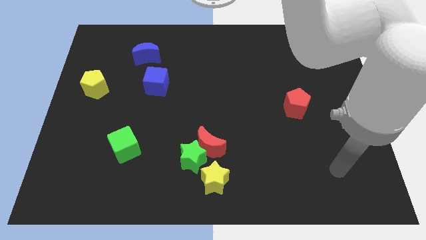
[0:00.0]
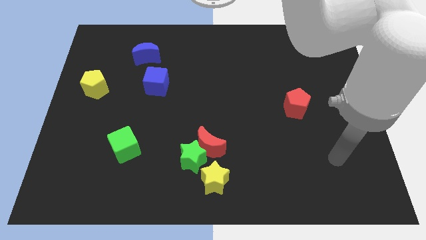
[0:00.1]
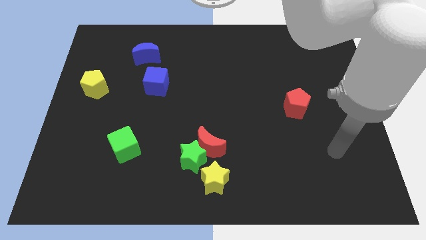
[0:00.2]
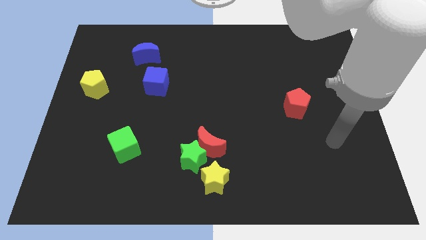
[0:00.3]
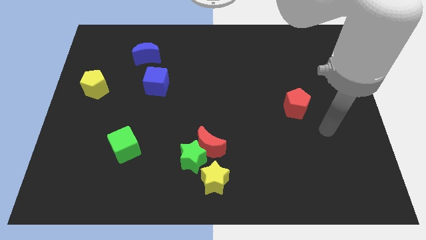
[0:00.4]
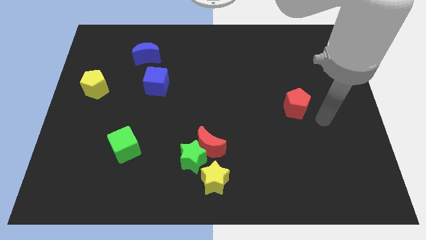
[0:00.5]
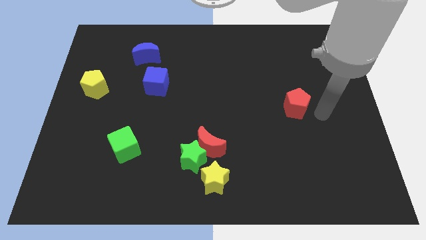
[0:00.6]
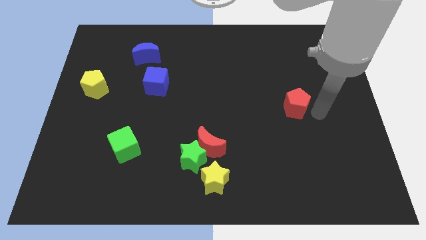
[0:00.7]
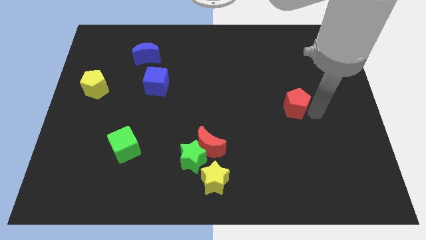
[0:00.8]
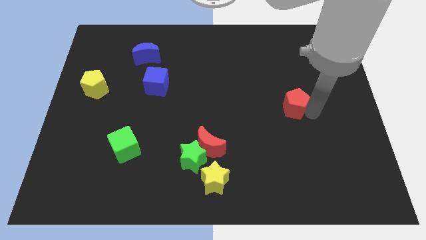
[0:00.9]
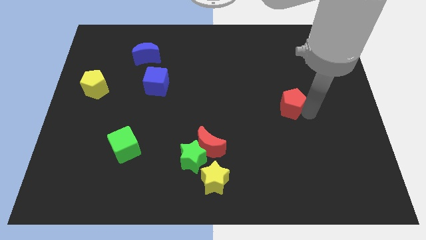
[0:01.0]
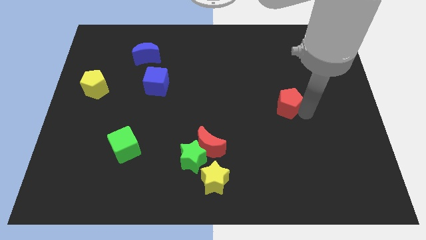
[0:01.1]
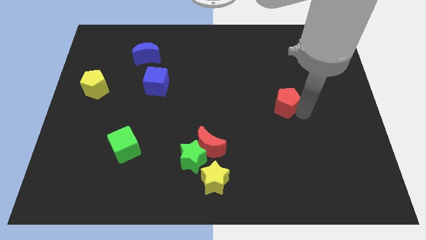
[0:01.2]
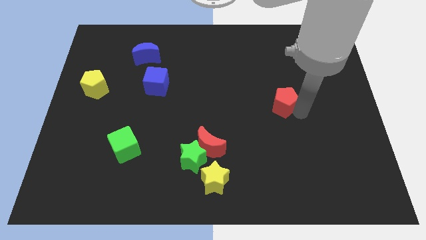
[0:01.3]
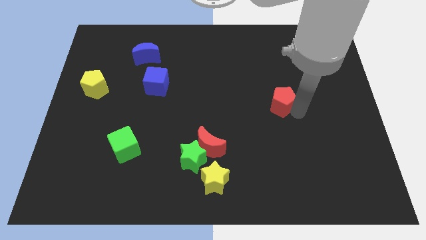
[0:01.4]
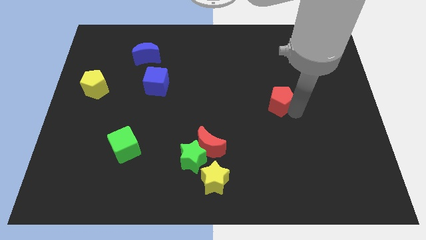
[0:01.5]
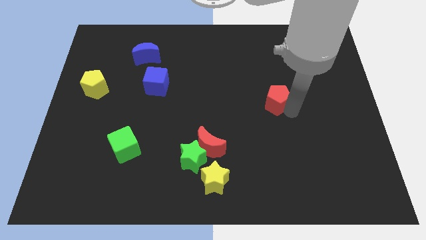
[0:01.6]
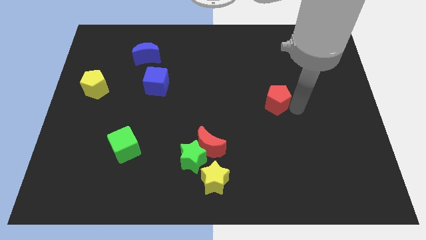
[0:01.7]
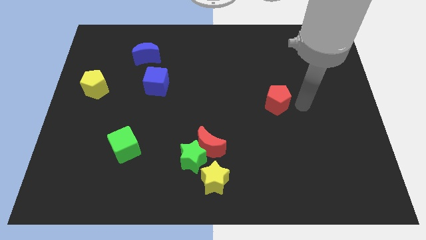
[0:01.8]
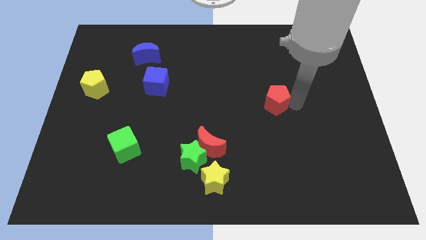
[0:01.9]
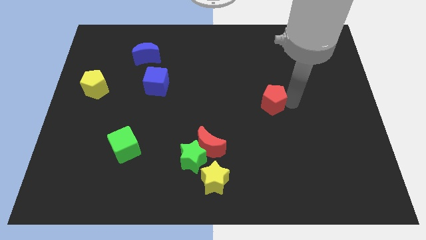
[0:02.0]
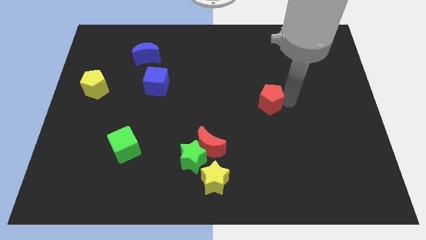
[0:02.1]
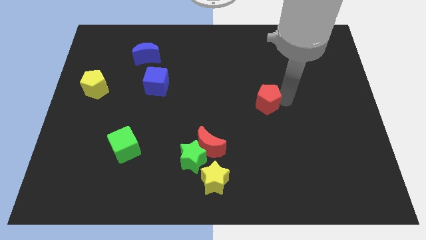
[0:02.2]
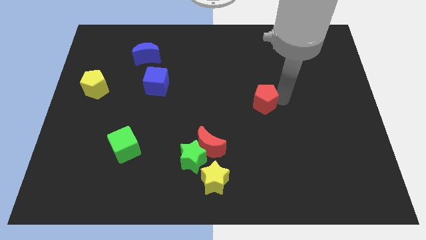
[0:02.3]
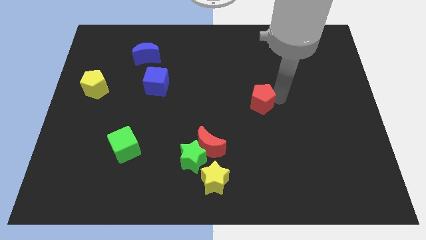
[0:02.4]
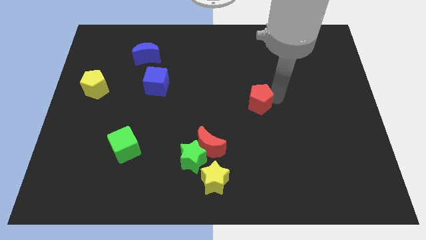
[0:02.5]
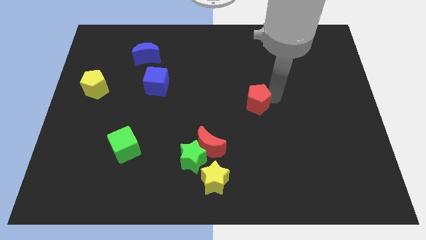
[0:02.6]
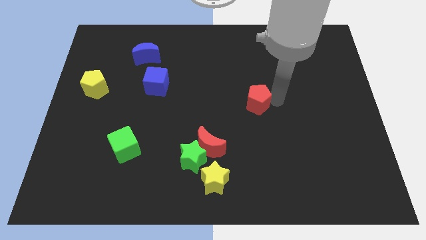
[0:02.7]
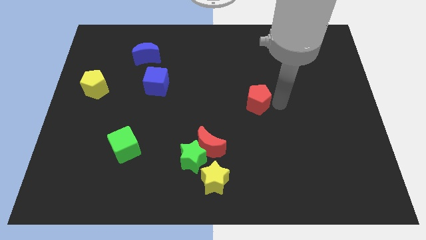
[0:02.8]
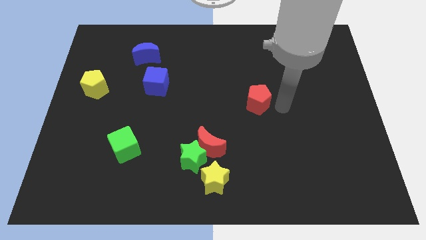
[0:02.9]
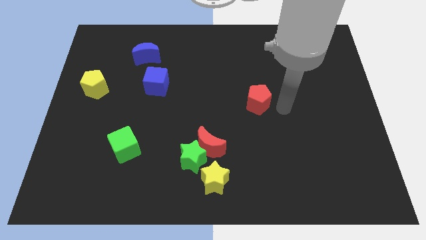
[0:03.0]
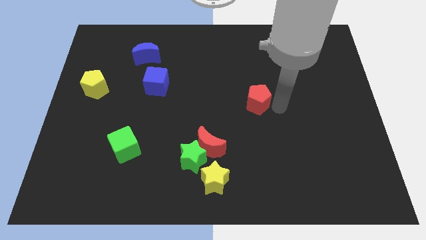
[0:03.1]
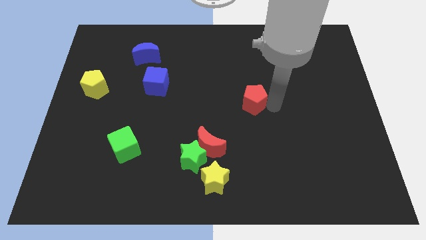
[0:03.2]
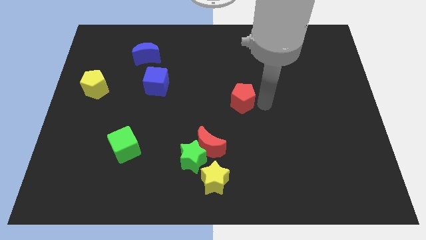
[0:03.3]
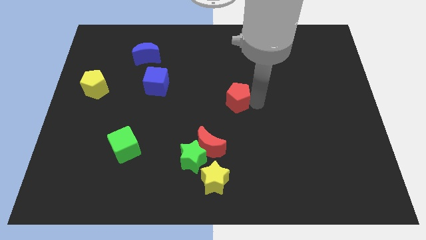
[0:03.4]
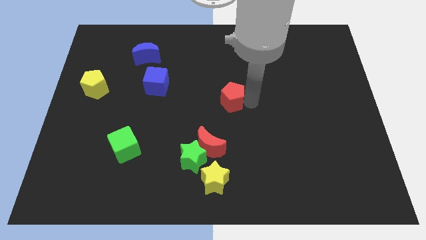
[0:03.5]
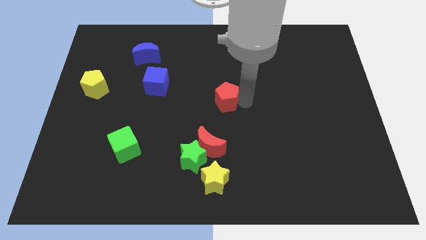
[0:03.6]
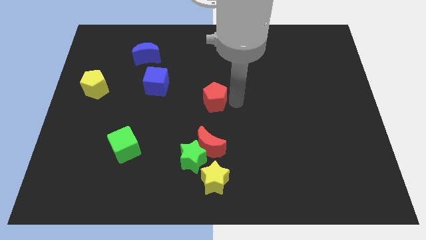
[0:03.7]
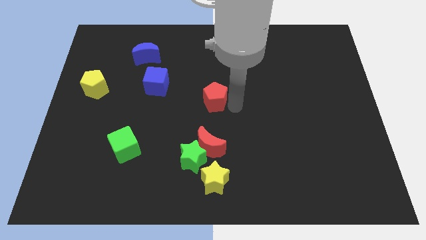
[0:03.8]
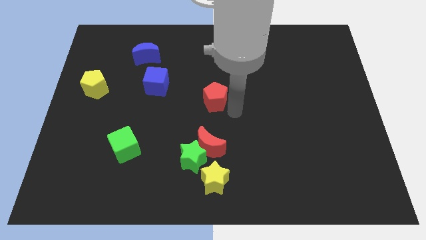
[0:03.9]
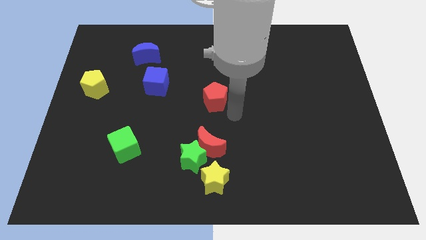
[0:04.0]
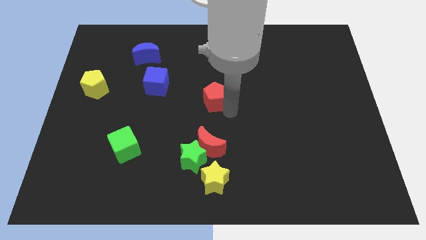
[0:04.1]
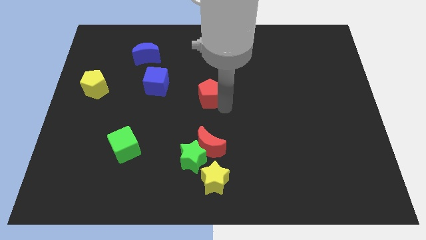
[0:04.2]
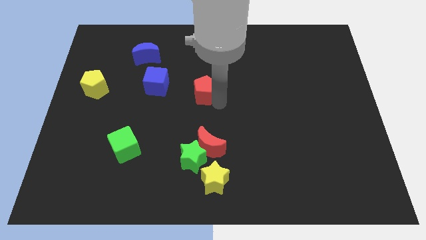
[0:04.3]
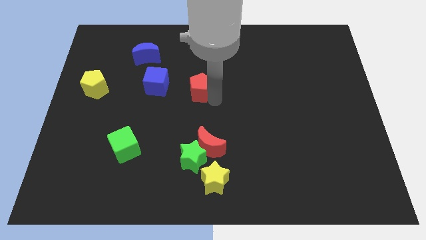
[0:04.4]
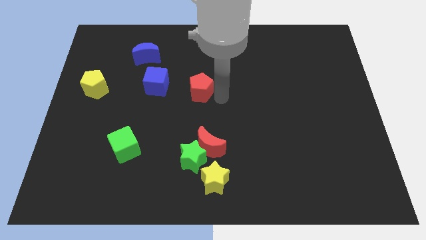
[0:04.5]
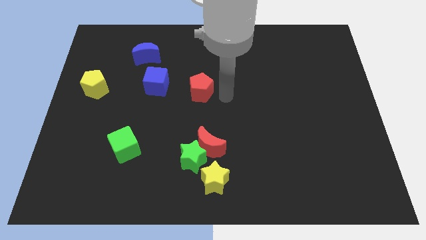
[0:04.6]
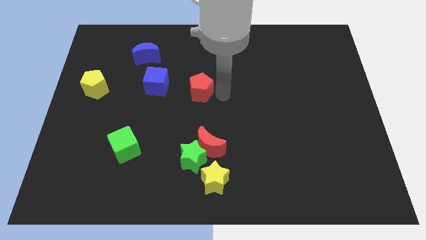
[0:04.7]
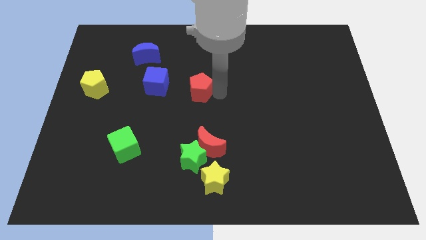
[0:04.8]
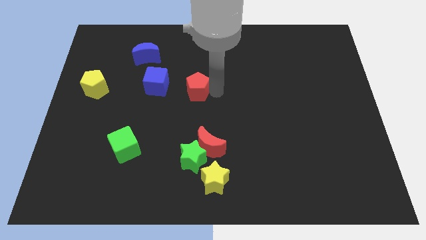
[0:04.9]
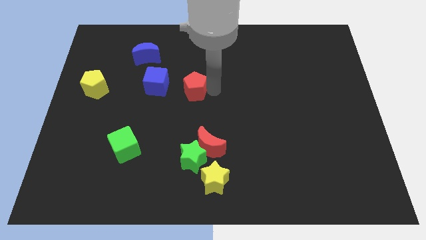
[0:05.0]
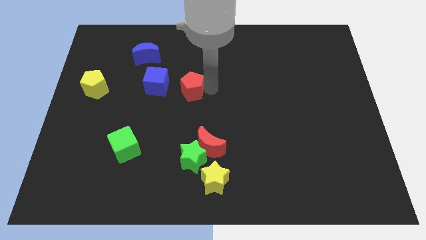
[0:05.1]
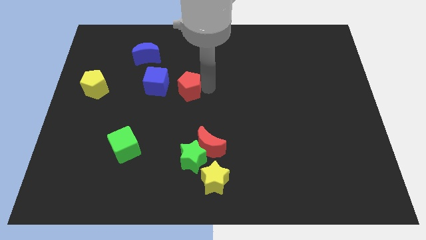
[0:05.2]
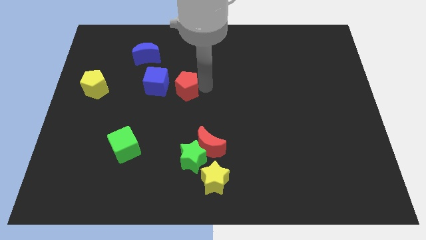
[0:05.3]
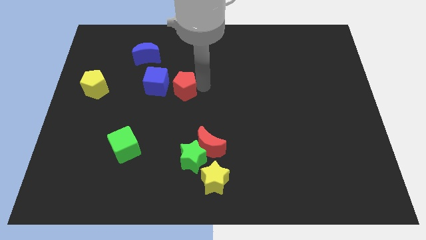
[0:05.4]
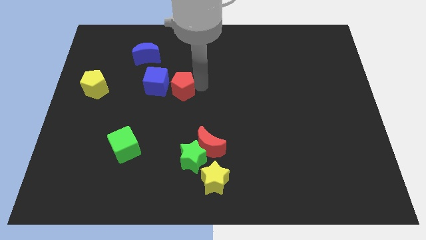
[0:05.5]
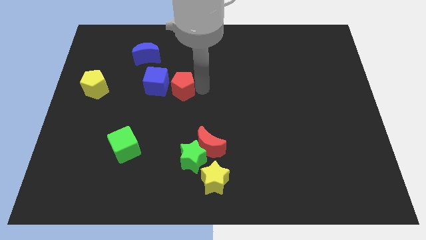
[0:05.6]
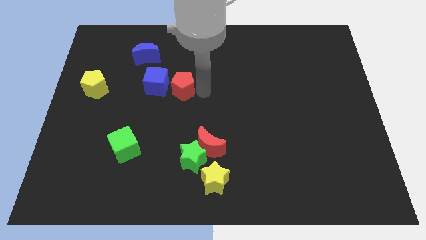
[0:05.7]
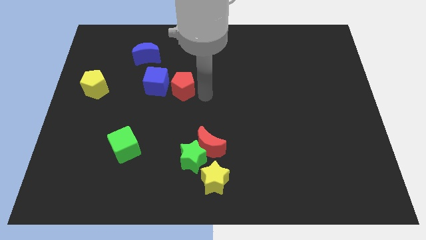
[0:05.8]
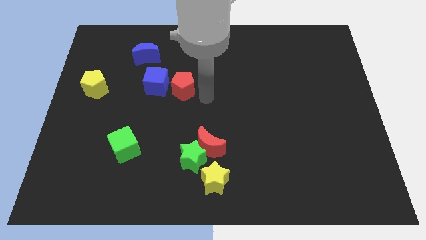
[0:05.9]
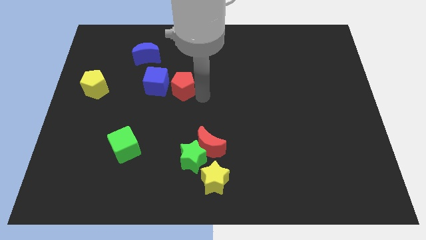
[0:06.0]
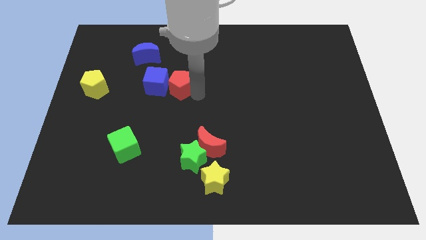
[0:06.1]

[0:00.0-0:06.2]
push the red pentagon next to the blue cube

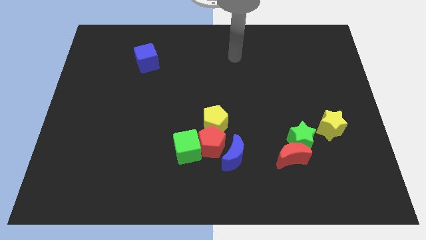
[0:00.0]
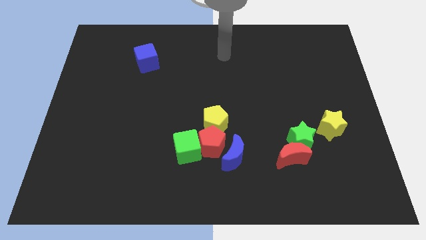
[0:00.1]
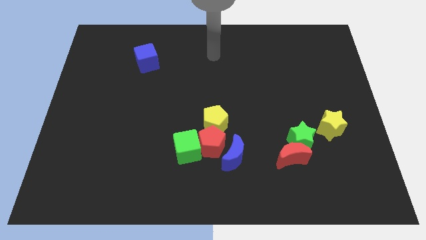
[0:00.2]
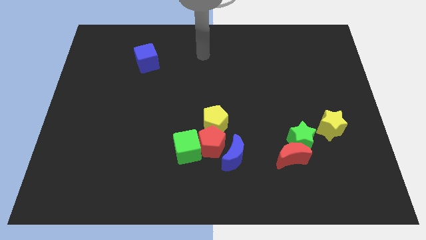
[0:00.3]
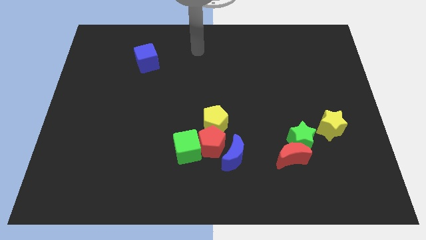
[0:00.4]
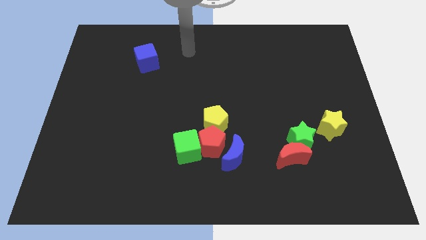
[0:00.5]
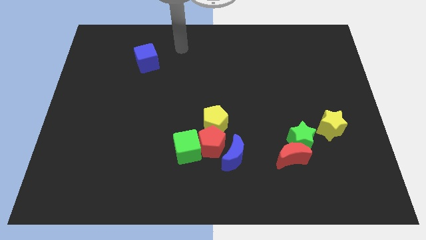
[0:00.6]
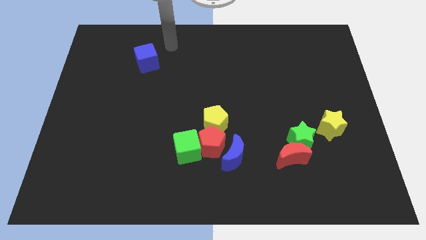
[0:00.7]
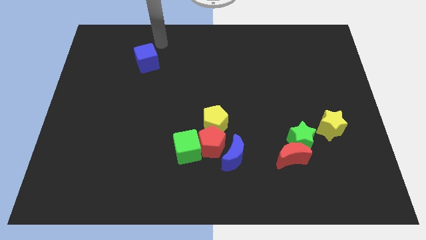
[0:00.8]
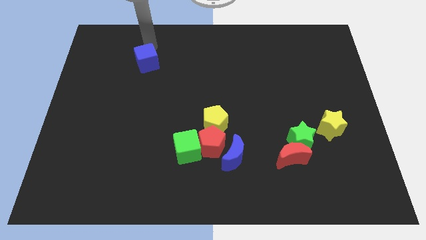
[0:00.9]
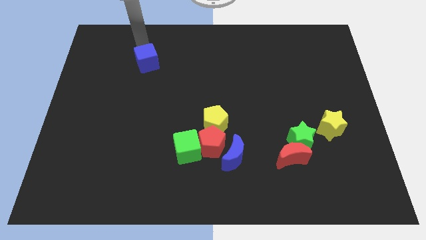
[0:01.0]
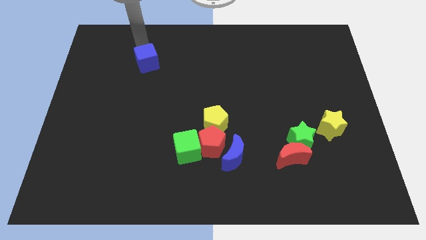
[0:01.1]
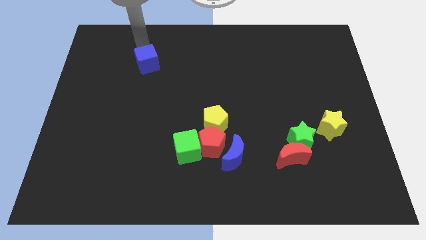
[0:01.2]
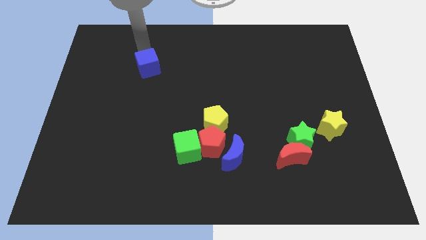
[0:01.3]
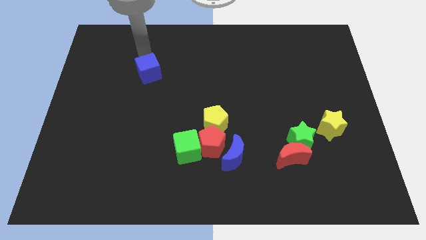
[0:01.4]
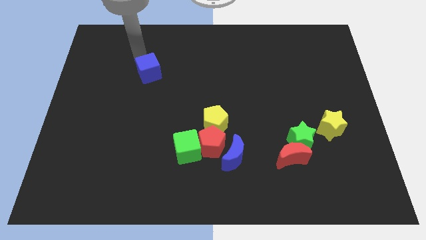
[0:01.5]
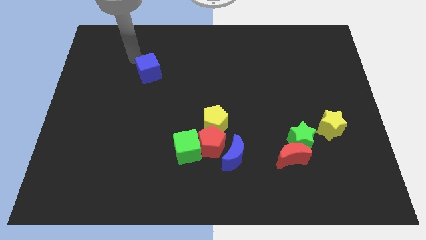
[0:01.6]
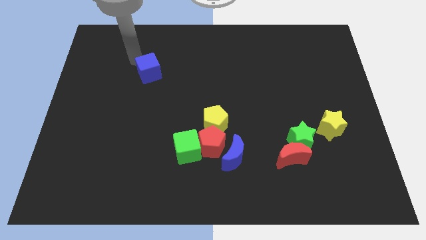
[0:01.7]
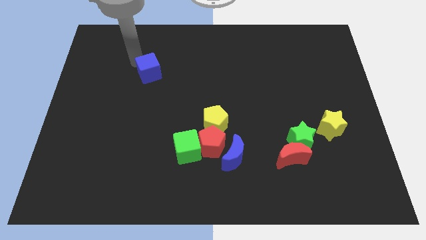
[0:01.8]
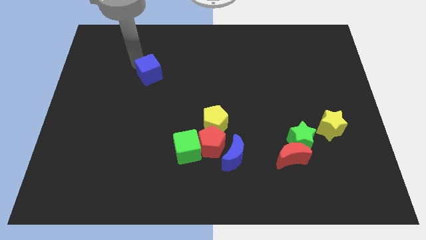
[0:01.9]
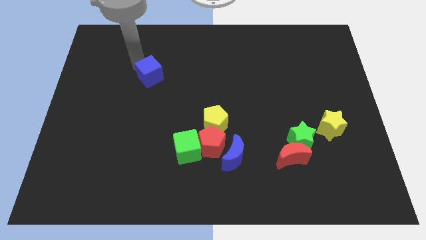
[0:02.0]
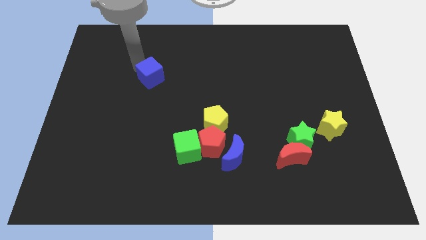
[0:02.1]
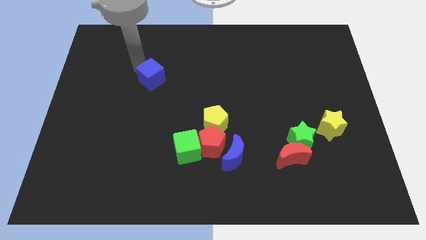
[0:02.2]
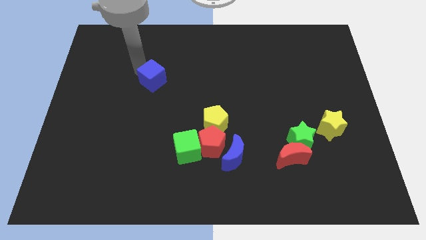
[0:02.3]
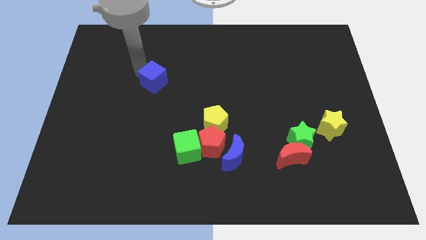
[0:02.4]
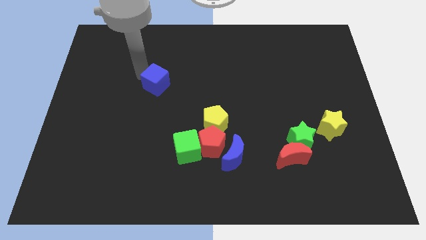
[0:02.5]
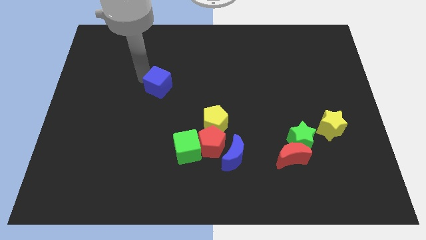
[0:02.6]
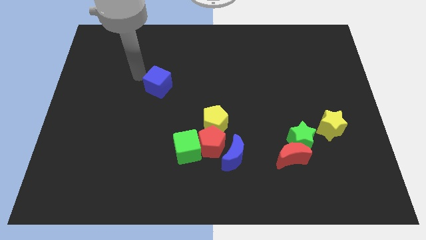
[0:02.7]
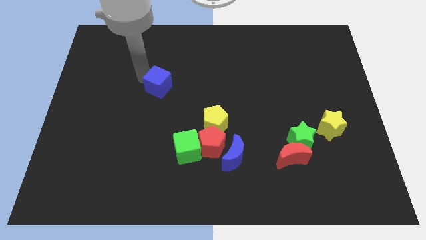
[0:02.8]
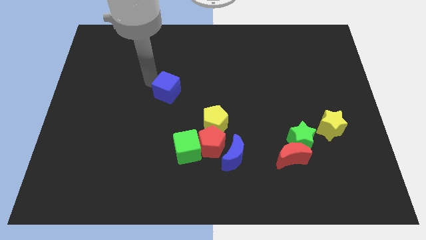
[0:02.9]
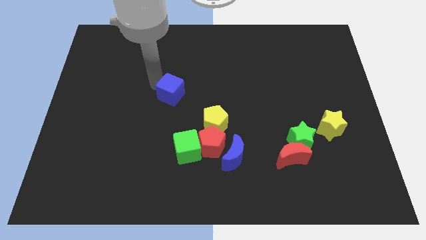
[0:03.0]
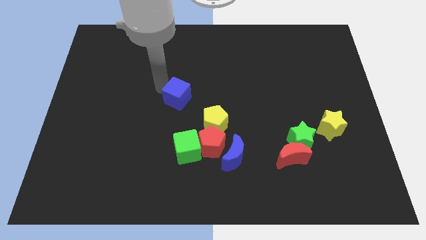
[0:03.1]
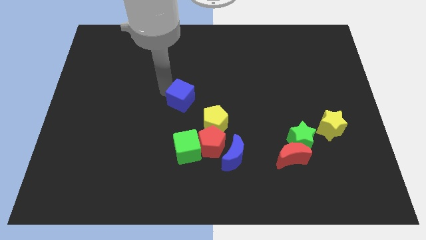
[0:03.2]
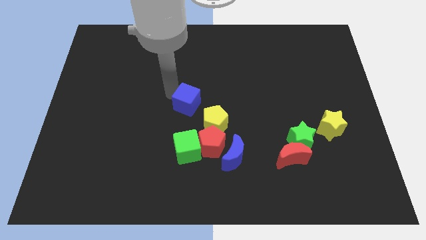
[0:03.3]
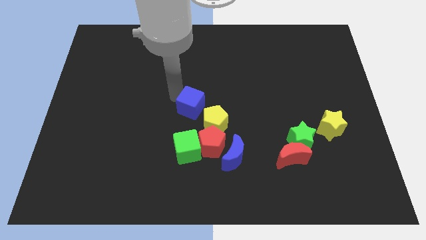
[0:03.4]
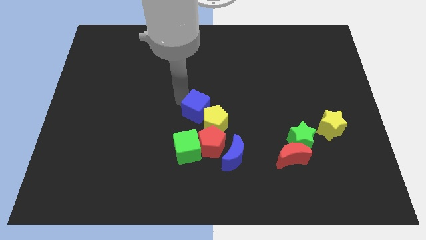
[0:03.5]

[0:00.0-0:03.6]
push the blue cube next to the yellow pentagon
